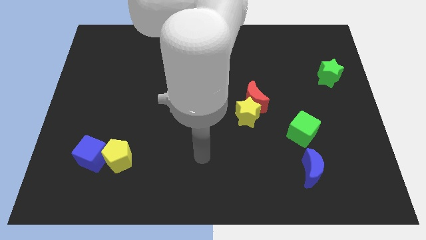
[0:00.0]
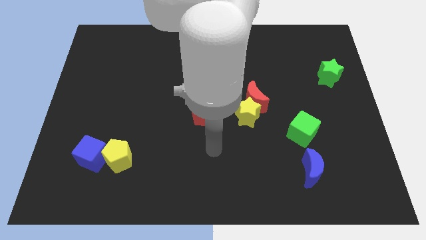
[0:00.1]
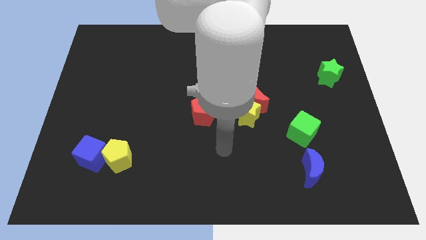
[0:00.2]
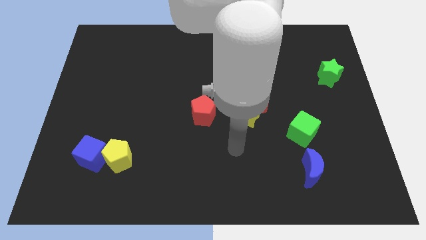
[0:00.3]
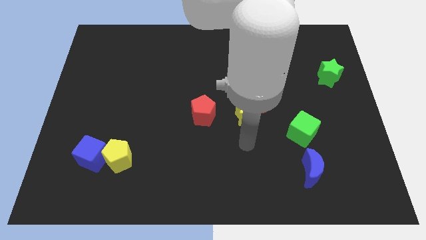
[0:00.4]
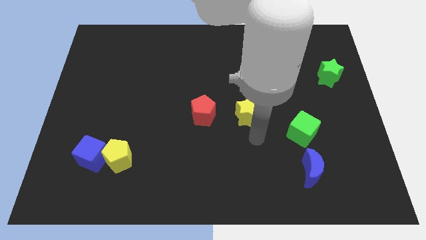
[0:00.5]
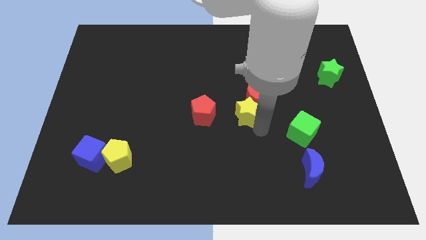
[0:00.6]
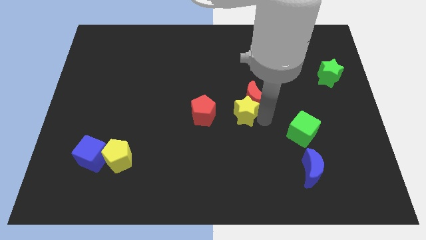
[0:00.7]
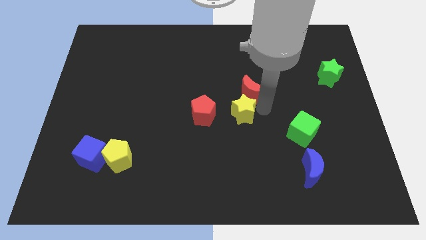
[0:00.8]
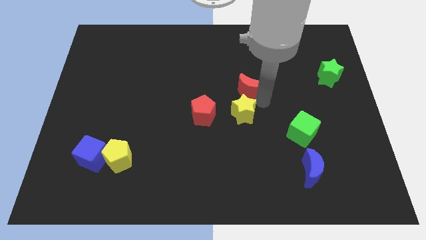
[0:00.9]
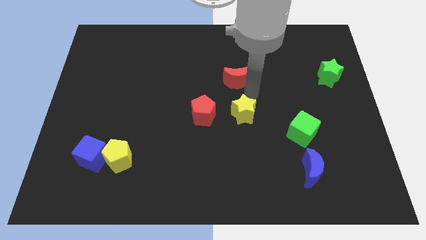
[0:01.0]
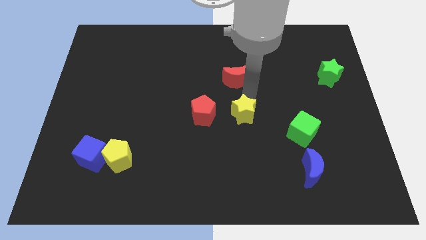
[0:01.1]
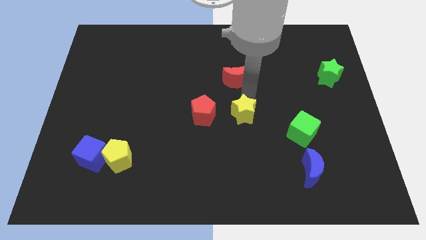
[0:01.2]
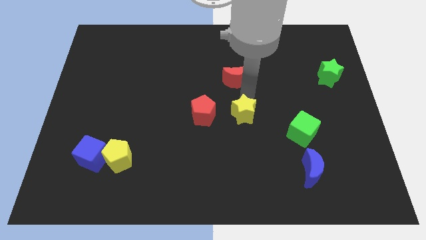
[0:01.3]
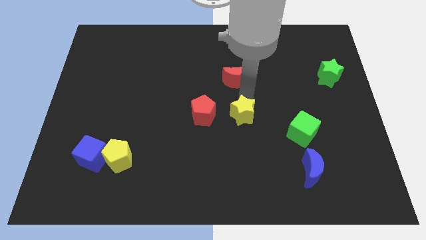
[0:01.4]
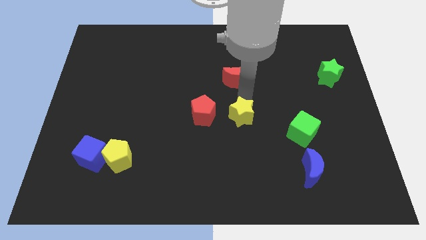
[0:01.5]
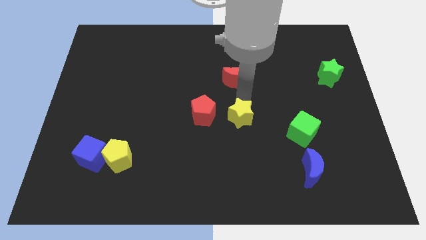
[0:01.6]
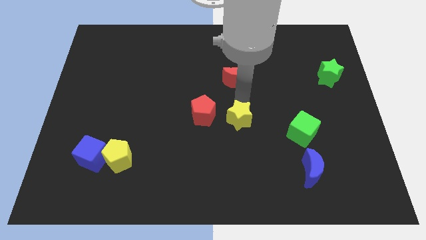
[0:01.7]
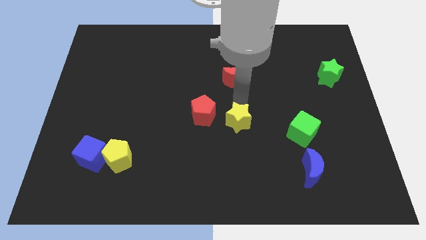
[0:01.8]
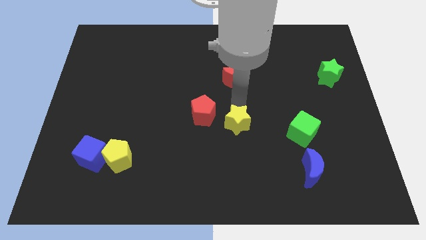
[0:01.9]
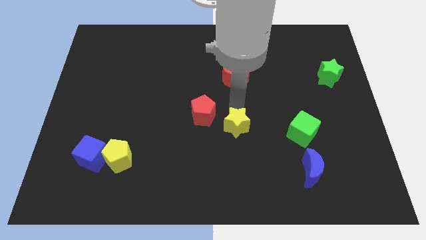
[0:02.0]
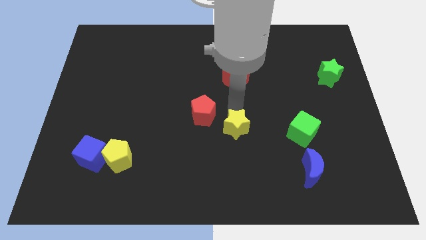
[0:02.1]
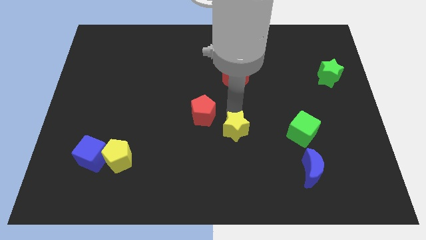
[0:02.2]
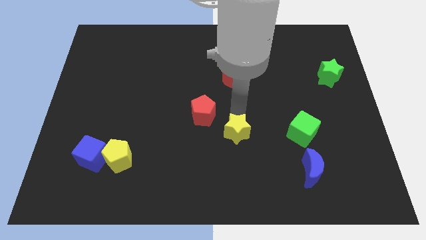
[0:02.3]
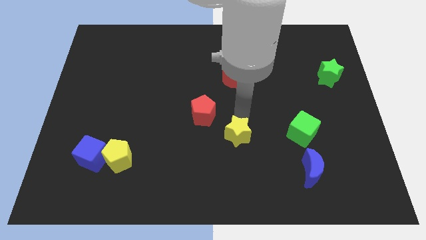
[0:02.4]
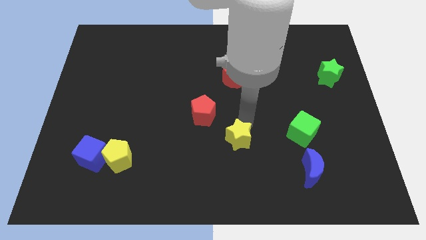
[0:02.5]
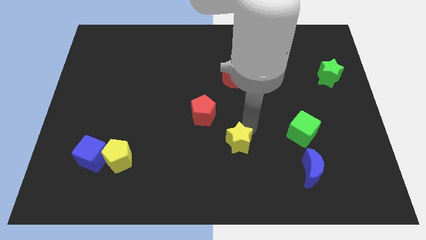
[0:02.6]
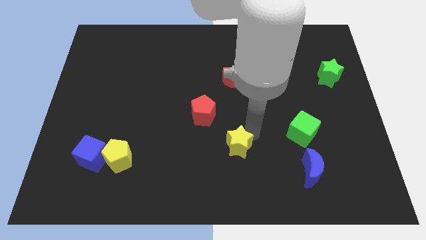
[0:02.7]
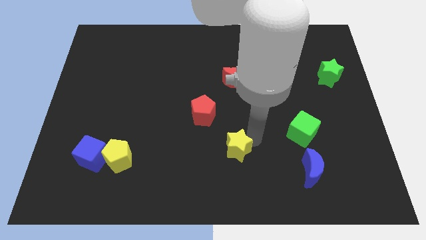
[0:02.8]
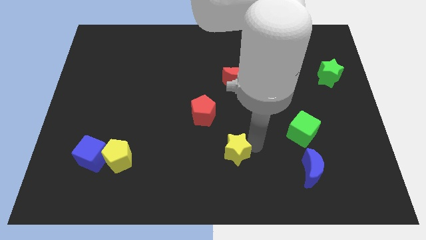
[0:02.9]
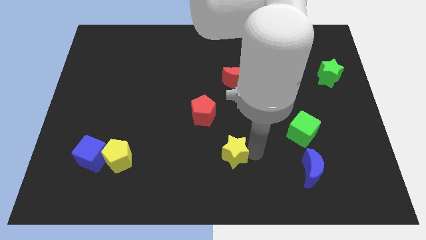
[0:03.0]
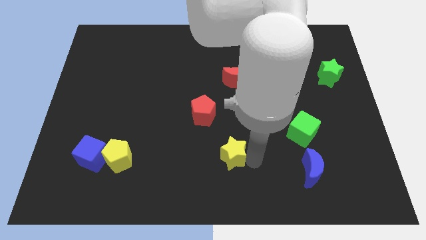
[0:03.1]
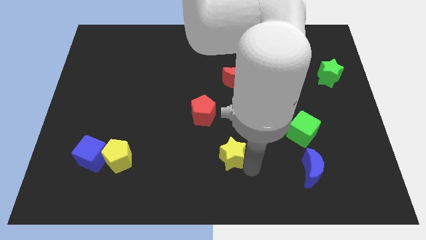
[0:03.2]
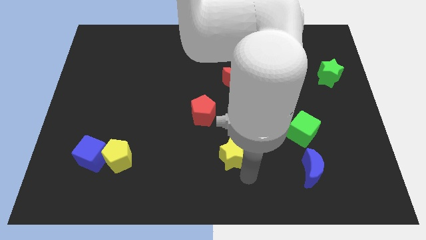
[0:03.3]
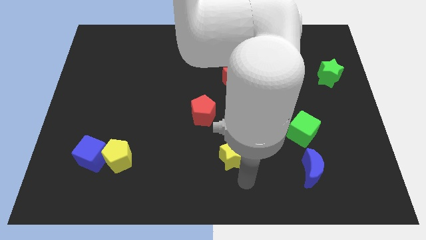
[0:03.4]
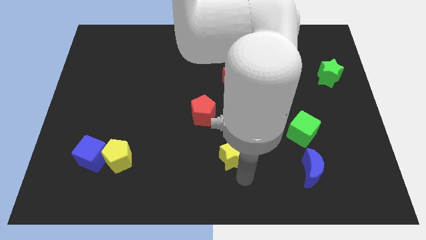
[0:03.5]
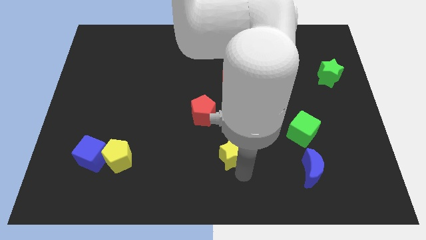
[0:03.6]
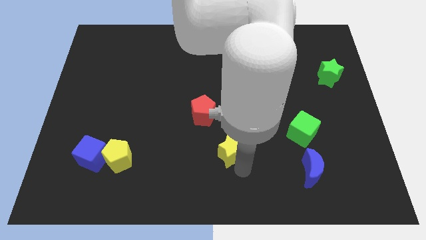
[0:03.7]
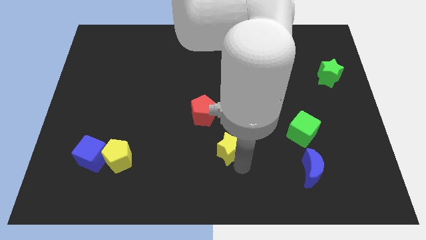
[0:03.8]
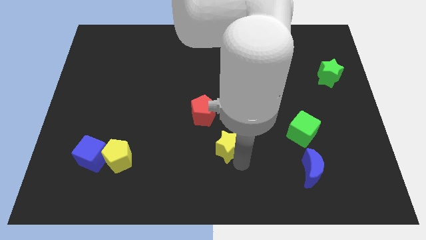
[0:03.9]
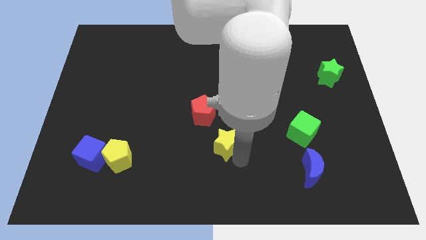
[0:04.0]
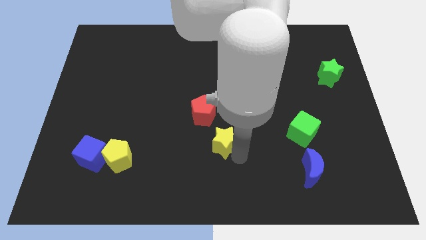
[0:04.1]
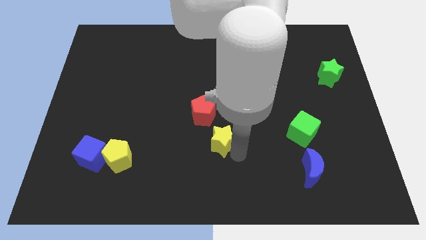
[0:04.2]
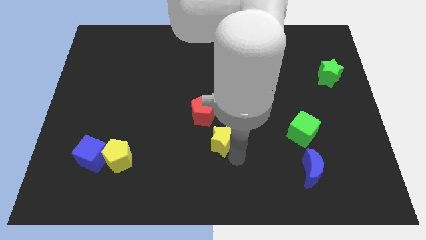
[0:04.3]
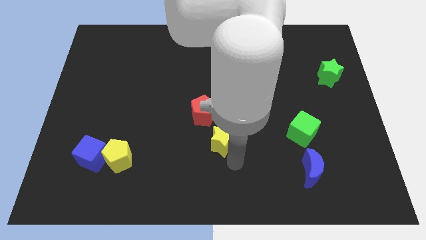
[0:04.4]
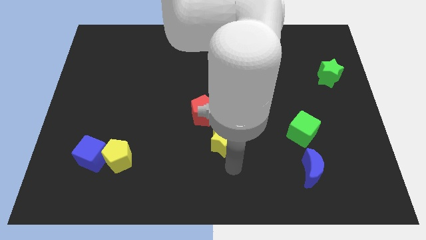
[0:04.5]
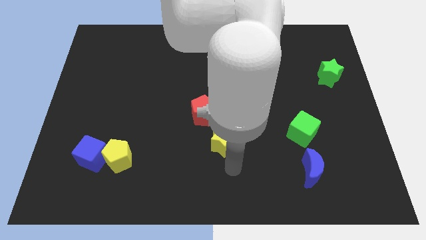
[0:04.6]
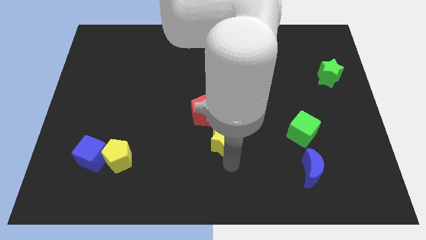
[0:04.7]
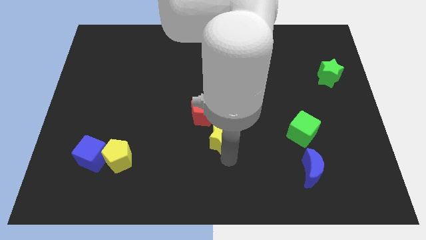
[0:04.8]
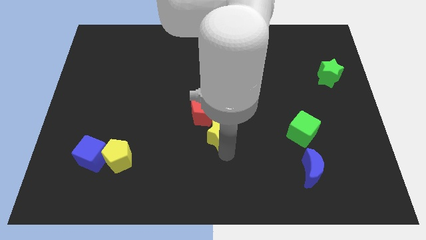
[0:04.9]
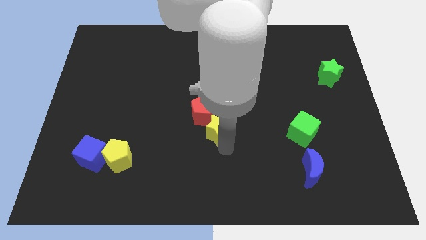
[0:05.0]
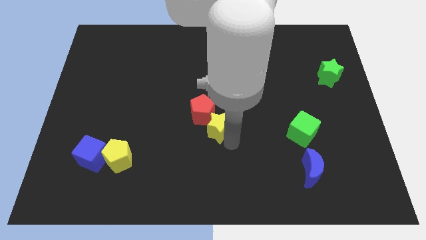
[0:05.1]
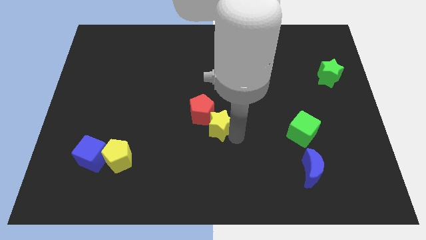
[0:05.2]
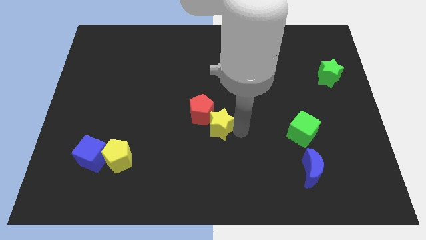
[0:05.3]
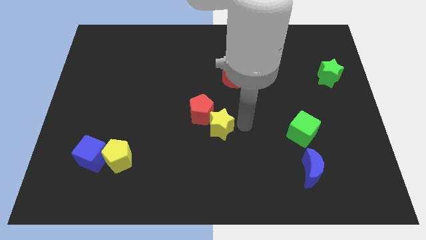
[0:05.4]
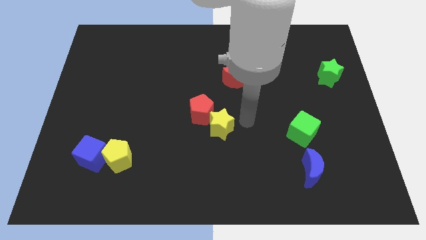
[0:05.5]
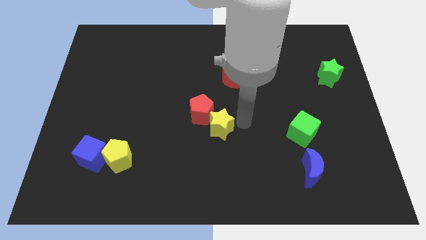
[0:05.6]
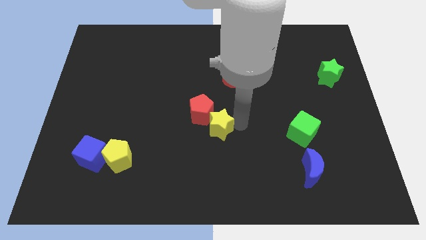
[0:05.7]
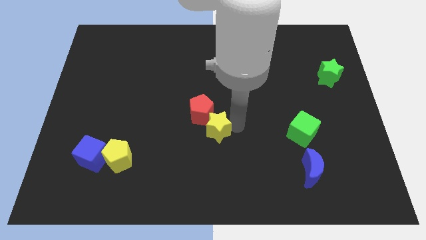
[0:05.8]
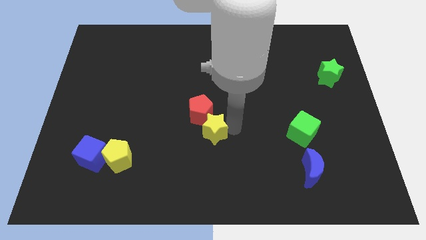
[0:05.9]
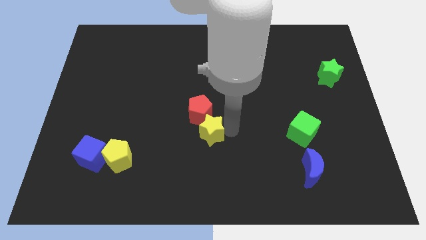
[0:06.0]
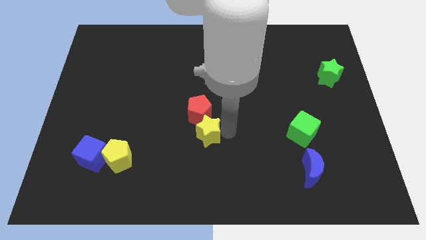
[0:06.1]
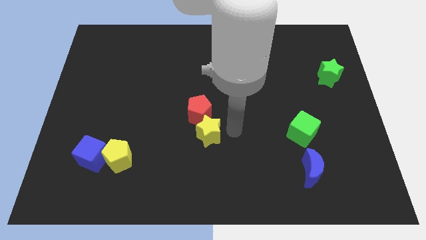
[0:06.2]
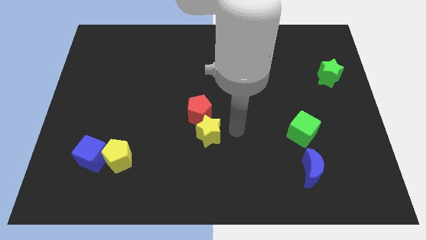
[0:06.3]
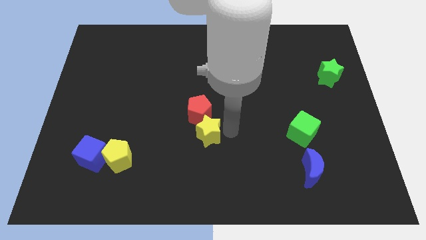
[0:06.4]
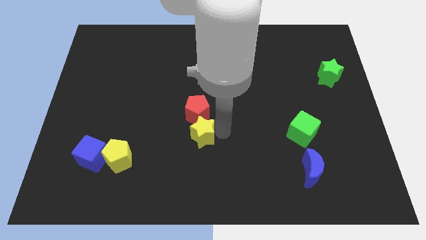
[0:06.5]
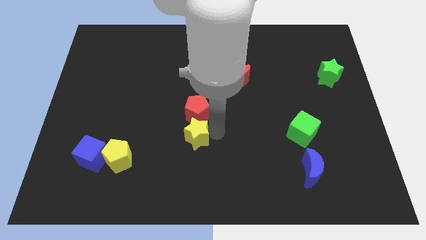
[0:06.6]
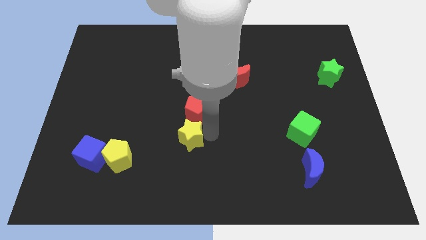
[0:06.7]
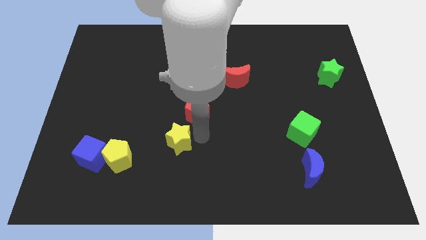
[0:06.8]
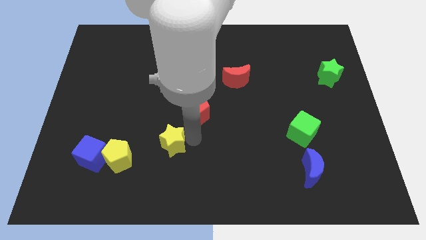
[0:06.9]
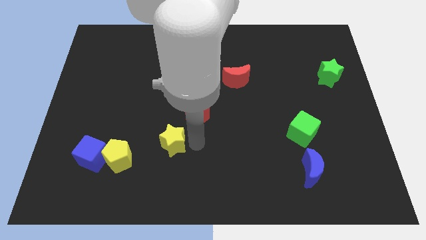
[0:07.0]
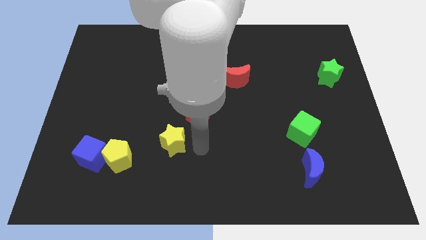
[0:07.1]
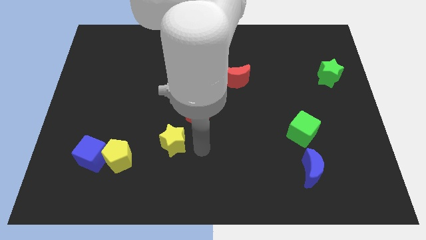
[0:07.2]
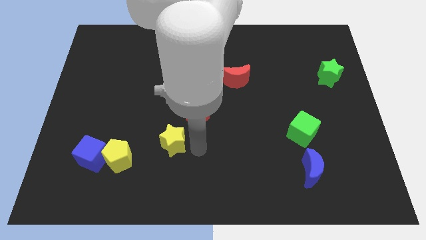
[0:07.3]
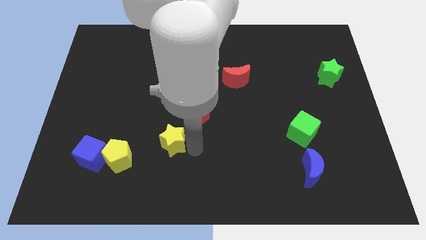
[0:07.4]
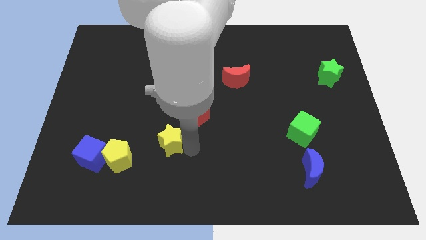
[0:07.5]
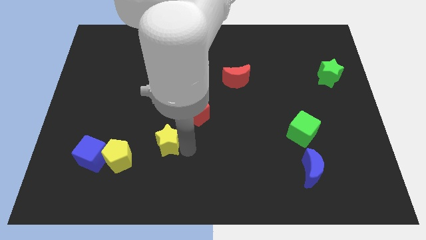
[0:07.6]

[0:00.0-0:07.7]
move the yellow star to the top right side of the yellow pentagon
